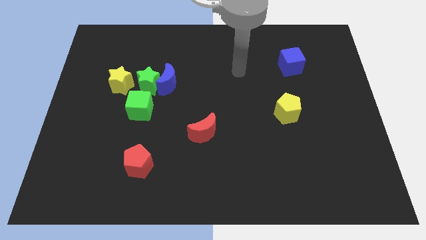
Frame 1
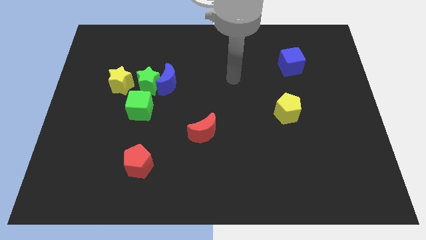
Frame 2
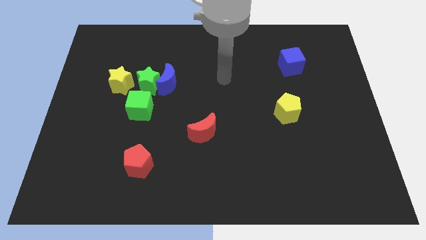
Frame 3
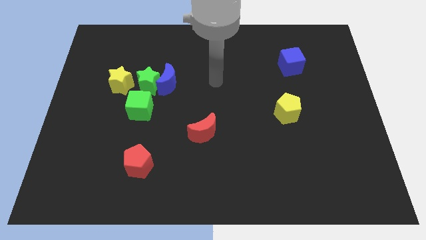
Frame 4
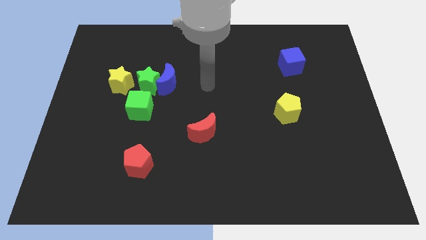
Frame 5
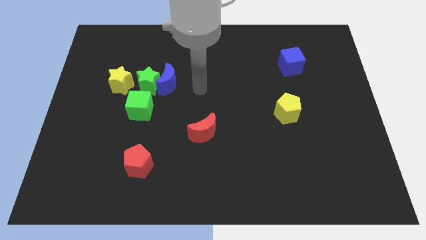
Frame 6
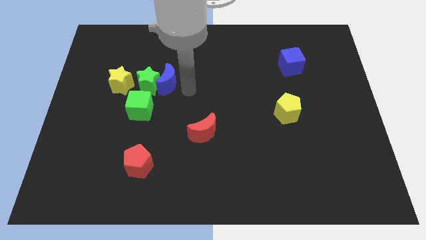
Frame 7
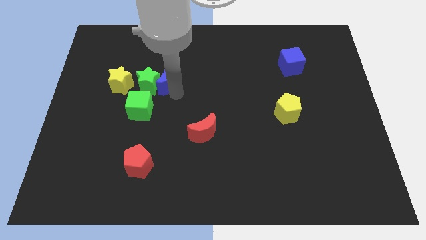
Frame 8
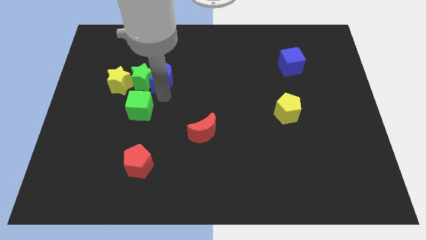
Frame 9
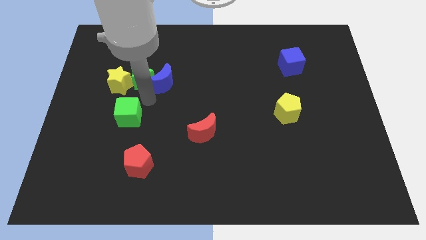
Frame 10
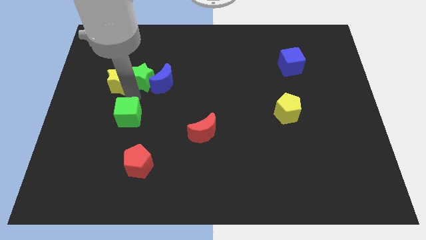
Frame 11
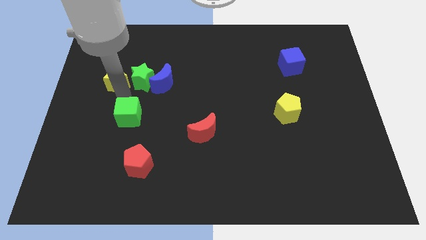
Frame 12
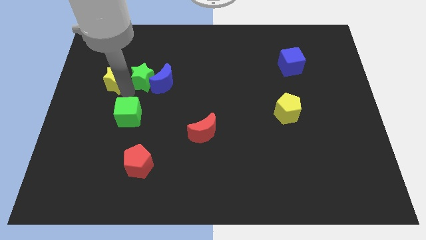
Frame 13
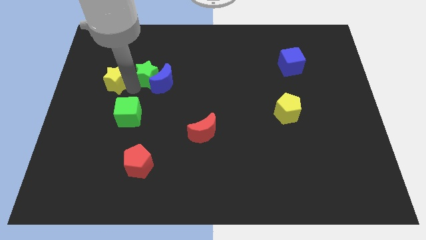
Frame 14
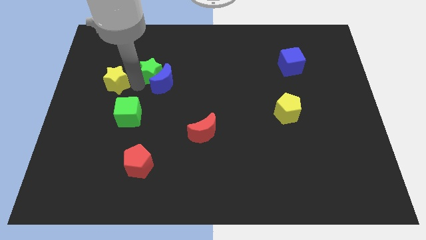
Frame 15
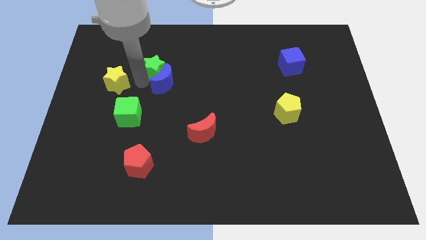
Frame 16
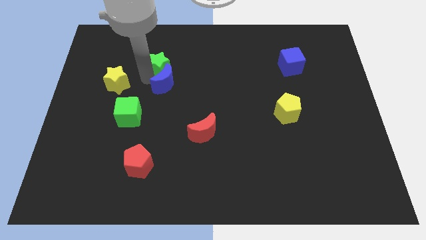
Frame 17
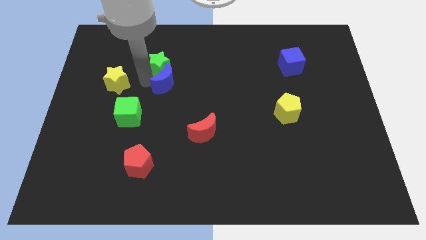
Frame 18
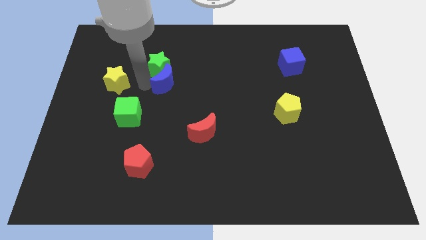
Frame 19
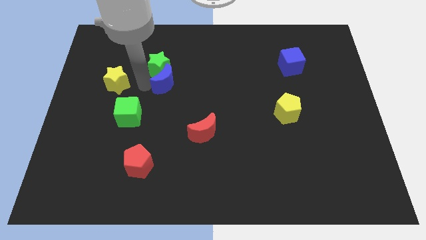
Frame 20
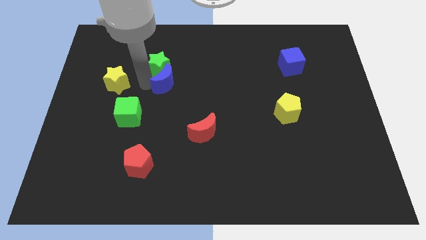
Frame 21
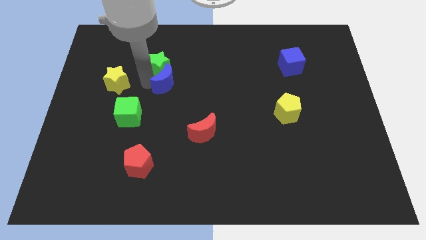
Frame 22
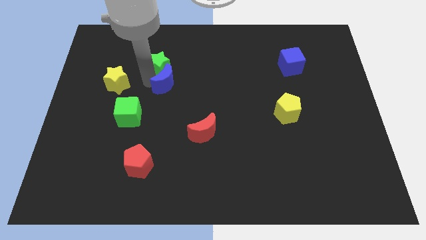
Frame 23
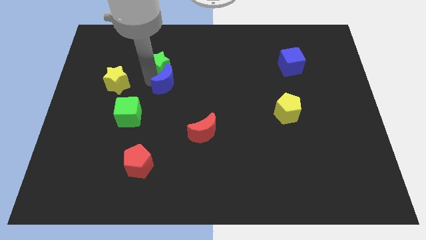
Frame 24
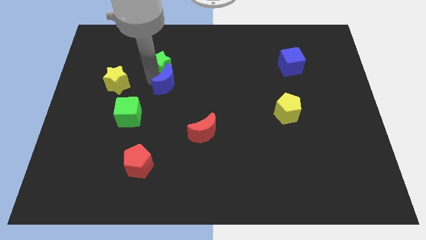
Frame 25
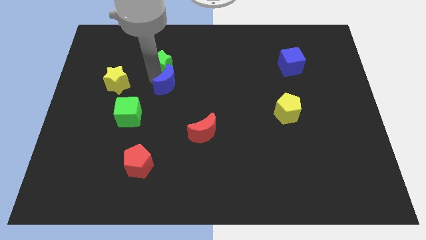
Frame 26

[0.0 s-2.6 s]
move the green star away from the group

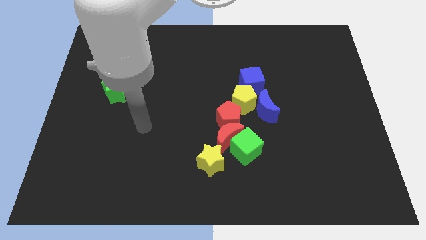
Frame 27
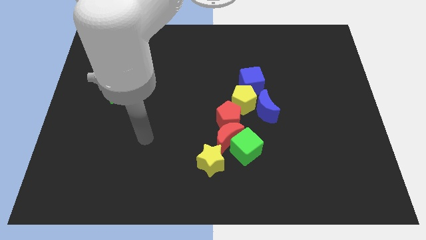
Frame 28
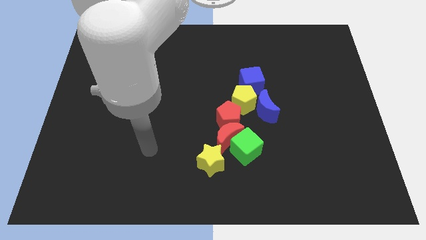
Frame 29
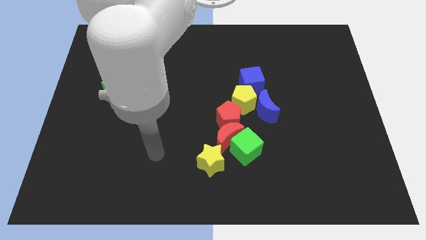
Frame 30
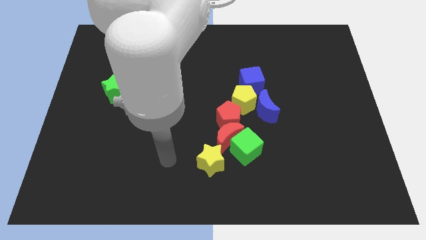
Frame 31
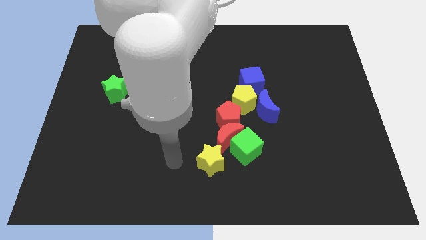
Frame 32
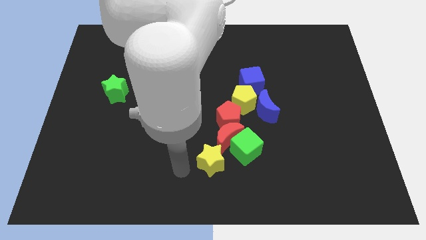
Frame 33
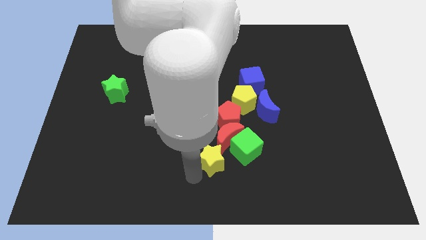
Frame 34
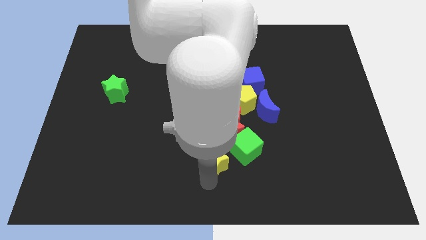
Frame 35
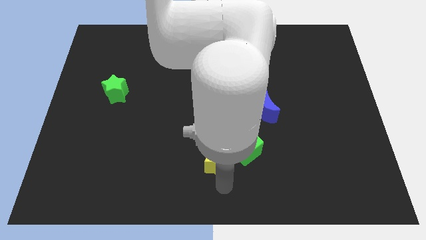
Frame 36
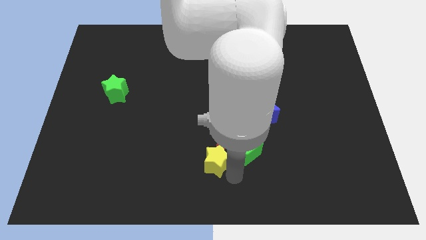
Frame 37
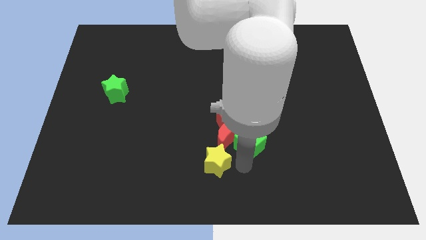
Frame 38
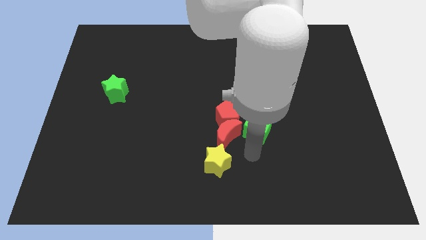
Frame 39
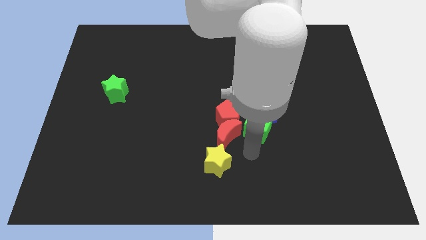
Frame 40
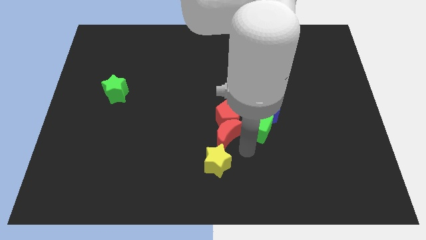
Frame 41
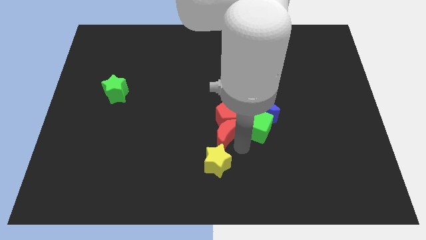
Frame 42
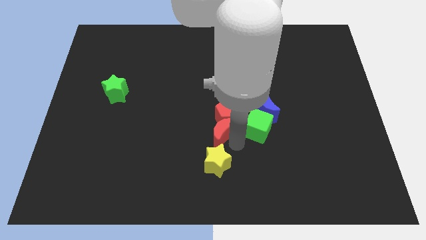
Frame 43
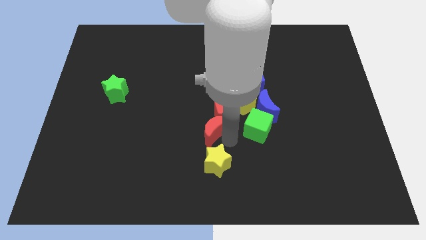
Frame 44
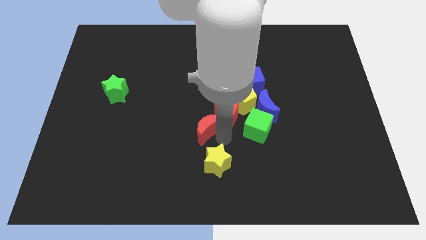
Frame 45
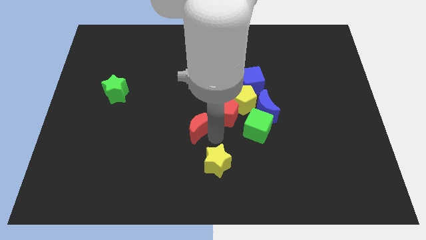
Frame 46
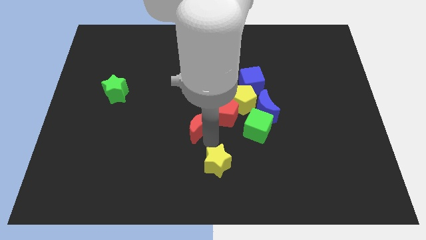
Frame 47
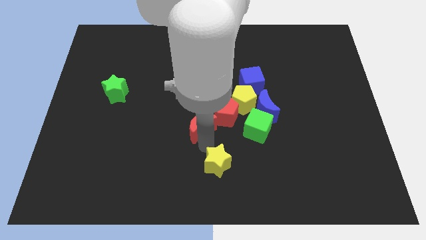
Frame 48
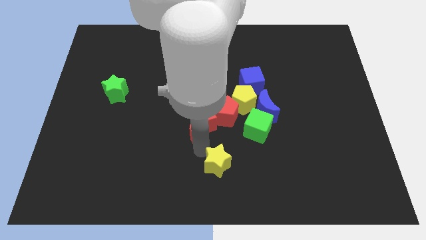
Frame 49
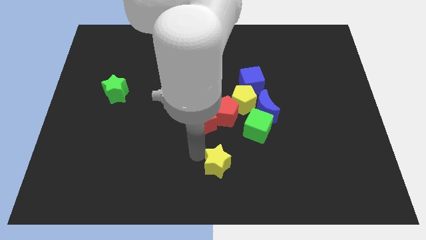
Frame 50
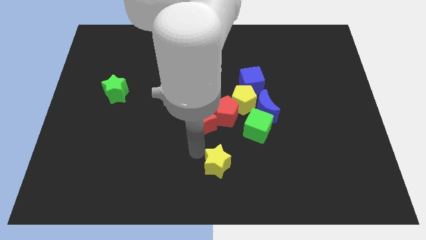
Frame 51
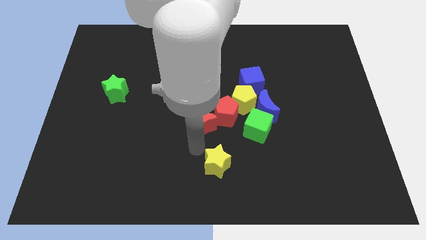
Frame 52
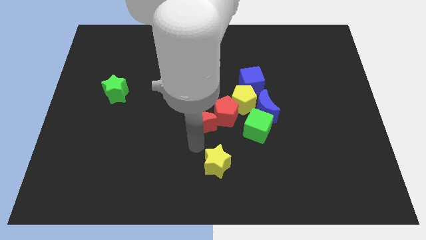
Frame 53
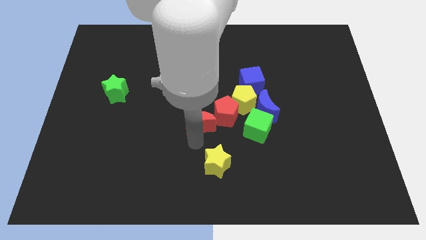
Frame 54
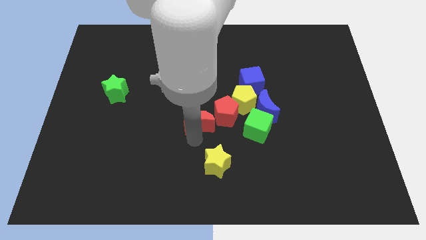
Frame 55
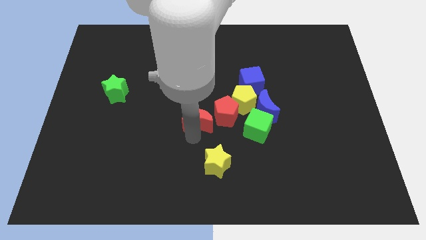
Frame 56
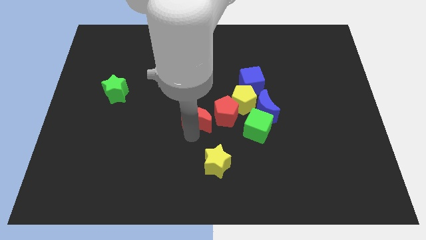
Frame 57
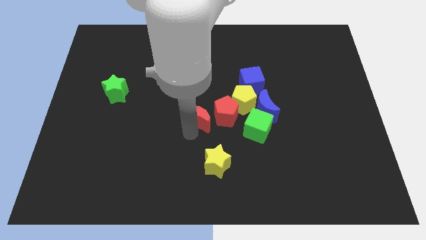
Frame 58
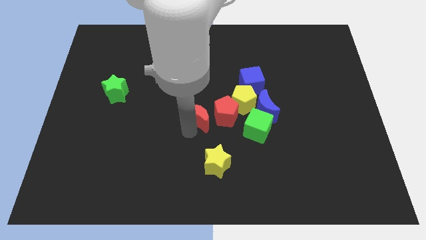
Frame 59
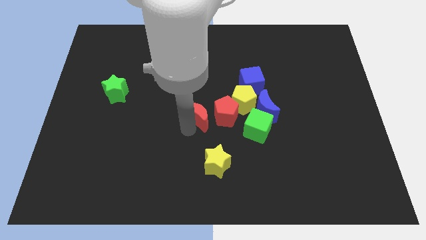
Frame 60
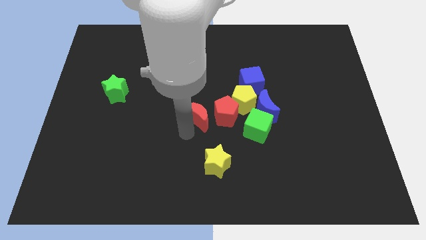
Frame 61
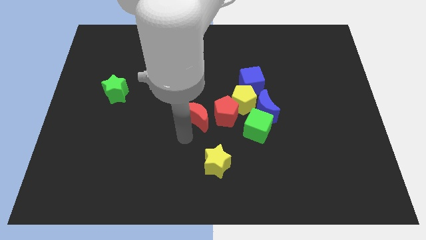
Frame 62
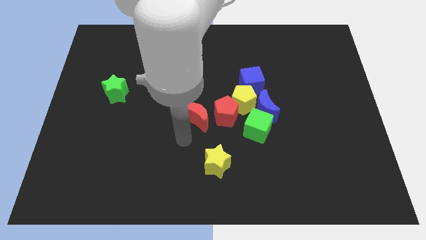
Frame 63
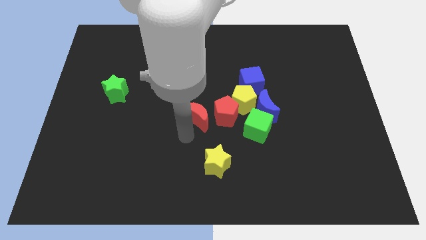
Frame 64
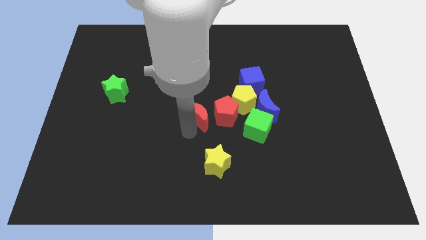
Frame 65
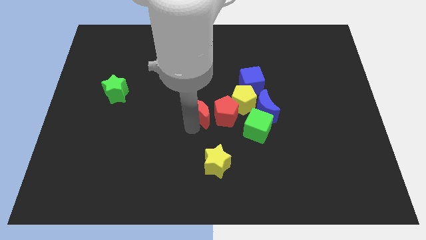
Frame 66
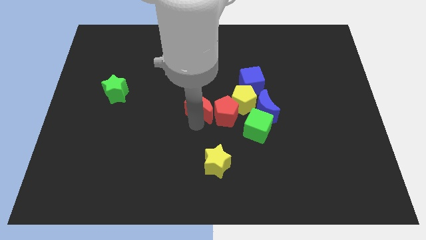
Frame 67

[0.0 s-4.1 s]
move the red moon away from the green cube, red pentagon, and yellow star

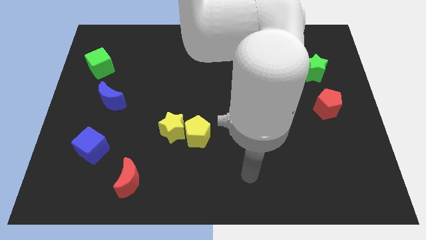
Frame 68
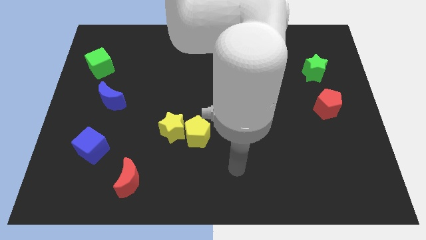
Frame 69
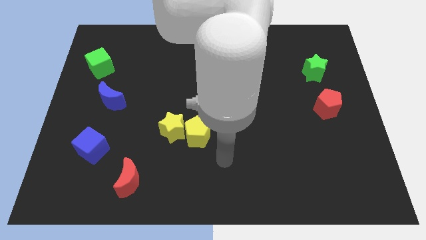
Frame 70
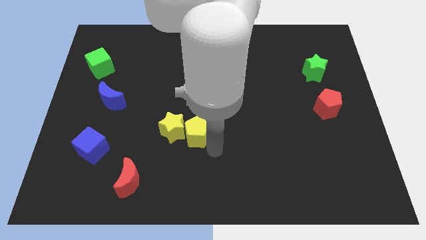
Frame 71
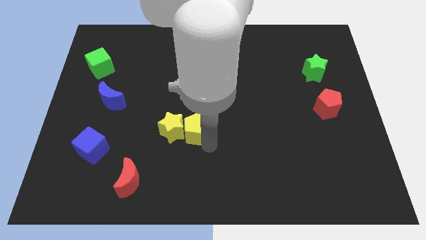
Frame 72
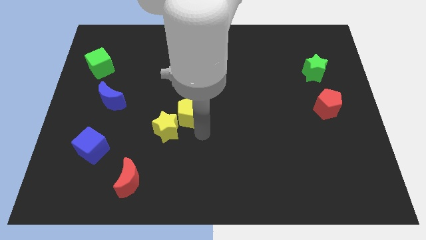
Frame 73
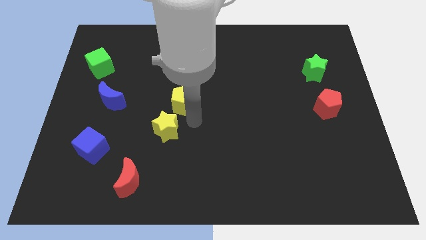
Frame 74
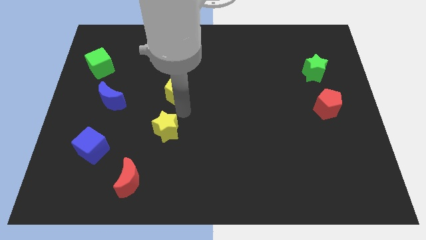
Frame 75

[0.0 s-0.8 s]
move the yellow star away from the yellow pentagon

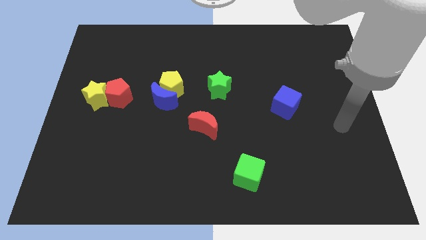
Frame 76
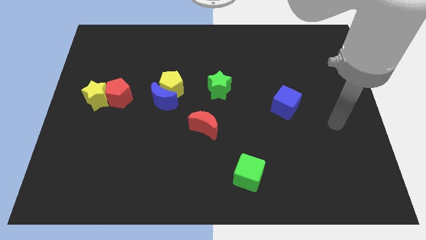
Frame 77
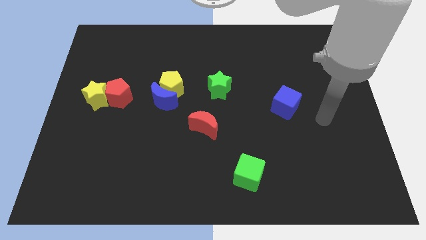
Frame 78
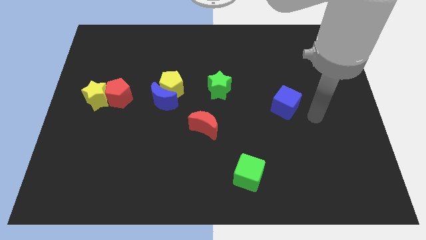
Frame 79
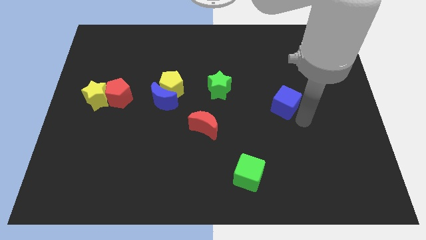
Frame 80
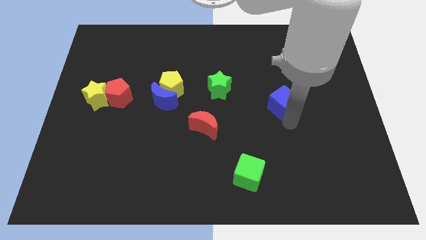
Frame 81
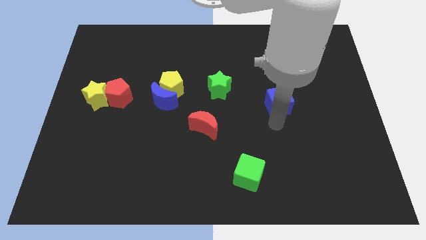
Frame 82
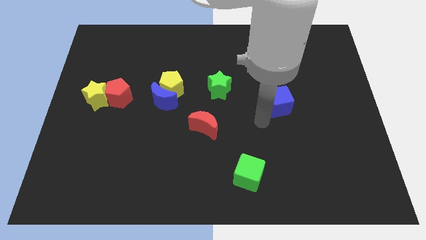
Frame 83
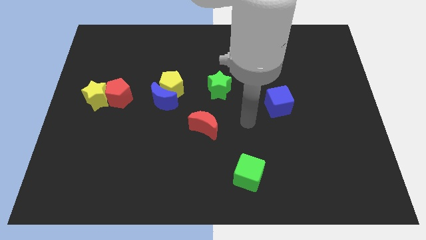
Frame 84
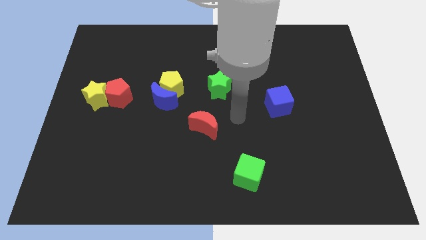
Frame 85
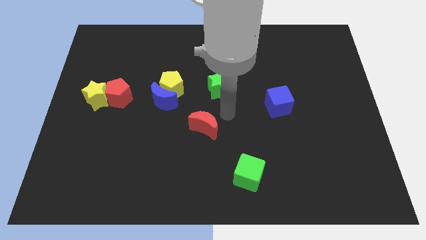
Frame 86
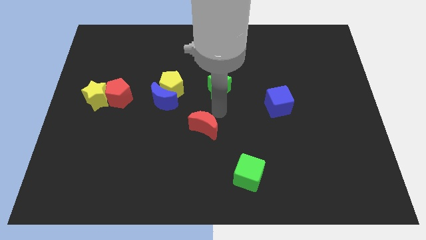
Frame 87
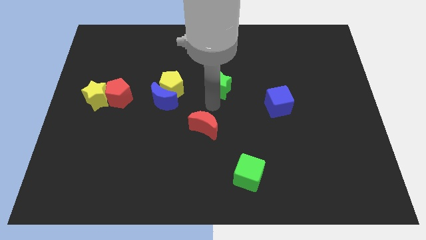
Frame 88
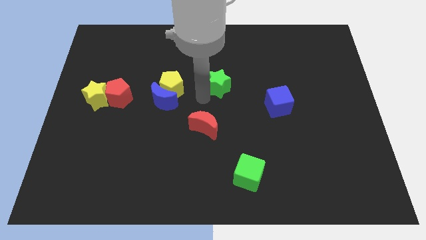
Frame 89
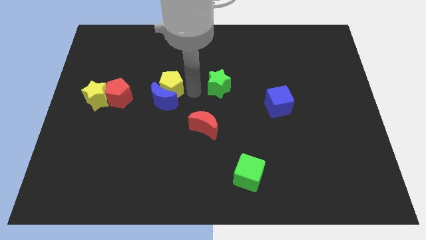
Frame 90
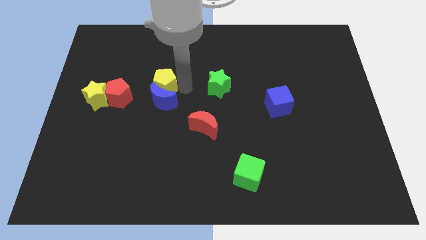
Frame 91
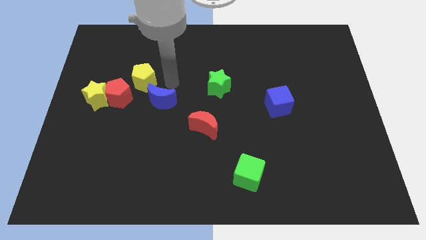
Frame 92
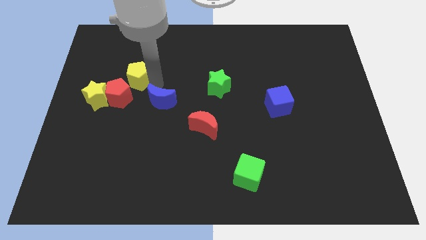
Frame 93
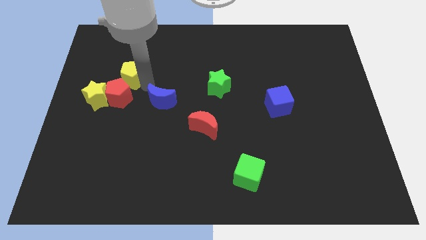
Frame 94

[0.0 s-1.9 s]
separate the blue moon from the yellow pentagon
